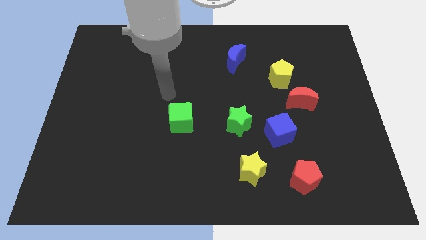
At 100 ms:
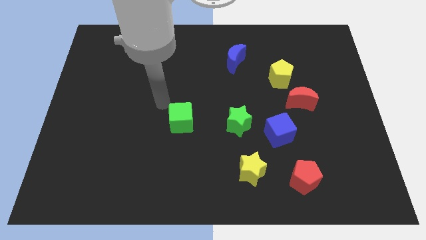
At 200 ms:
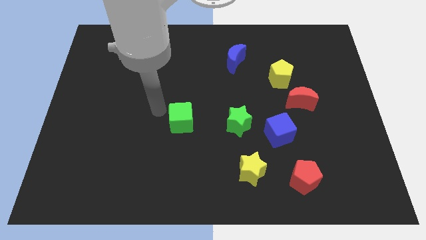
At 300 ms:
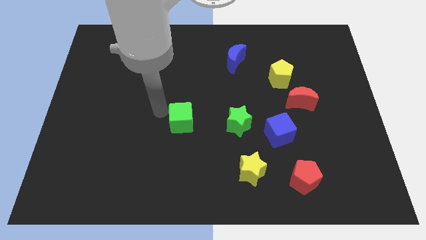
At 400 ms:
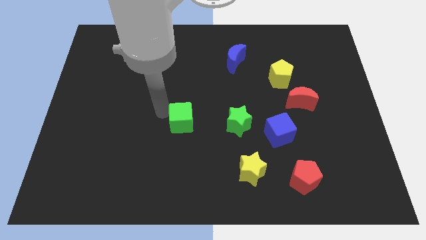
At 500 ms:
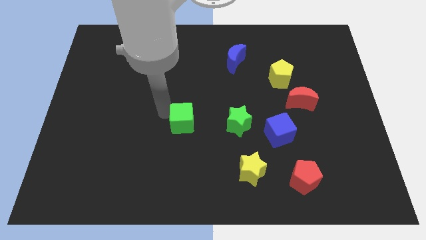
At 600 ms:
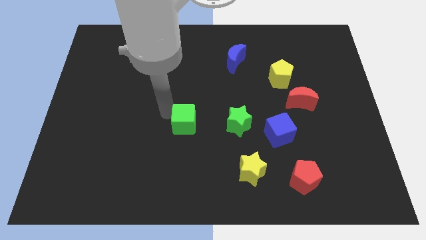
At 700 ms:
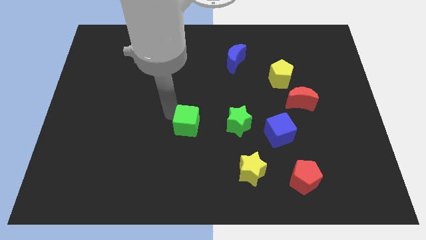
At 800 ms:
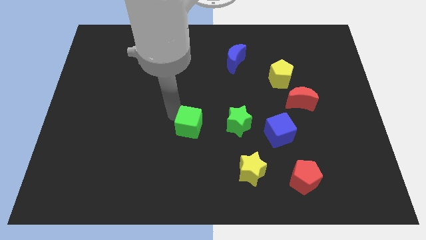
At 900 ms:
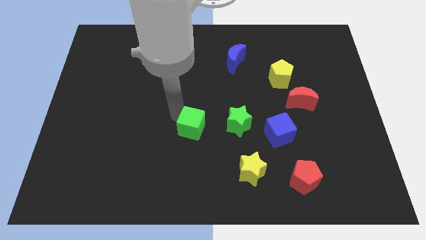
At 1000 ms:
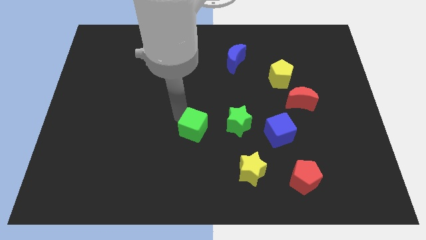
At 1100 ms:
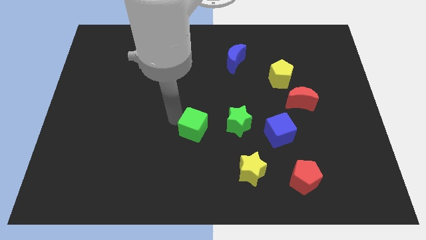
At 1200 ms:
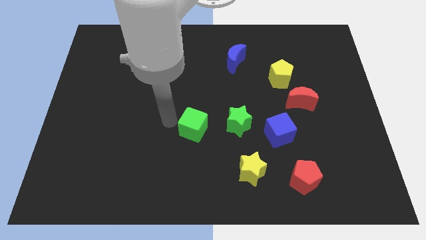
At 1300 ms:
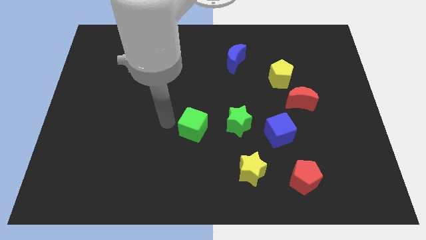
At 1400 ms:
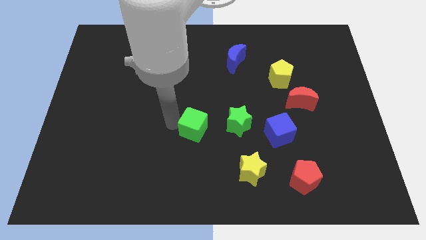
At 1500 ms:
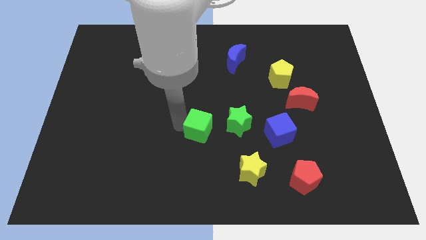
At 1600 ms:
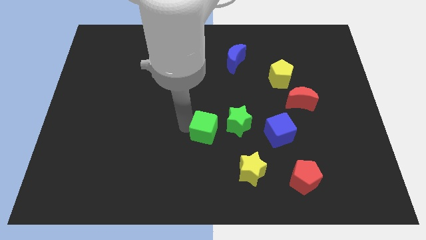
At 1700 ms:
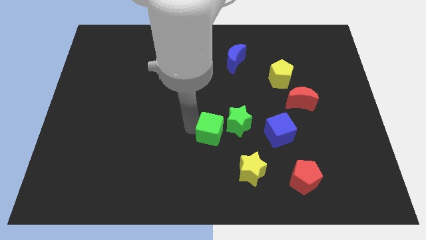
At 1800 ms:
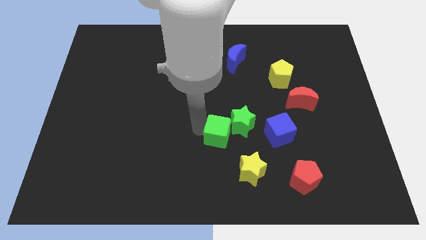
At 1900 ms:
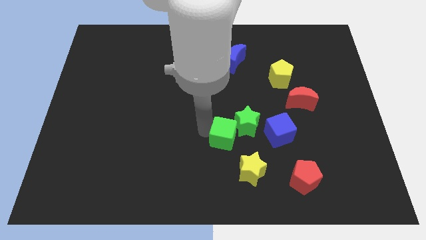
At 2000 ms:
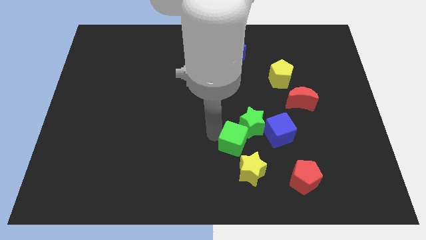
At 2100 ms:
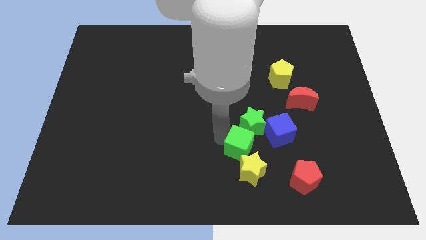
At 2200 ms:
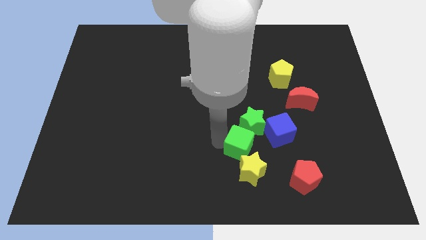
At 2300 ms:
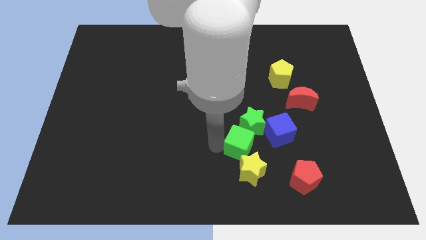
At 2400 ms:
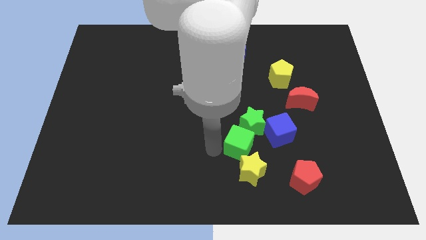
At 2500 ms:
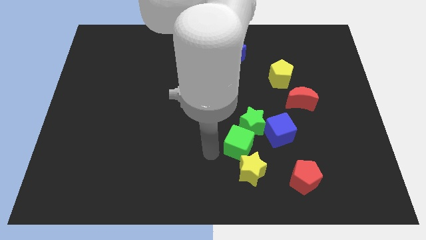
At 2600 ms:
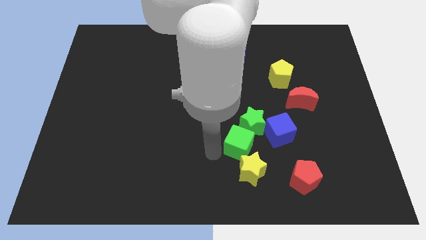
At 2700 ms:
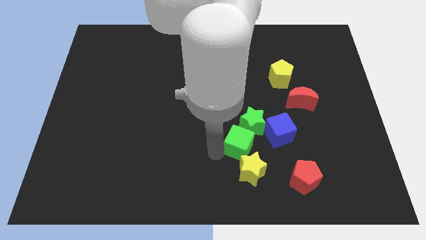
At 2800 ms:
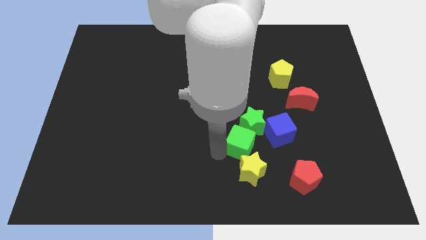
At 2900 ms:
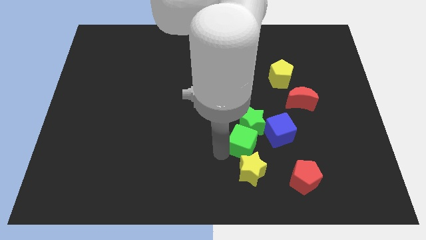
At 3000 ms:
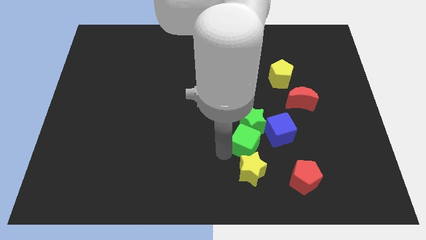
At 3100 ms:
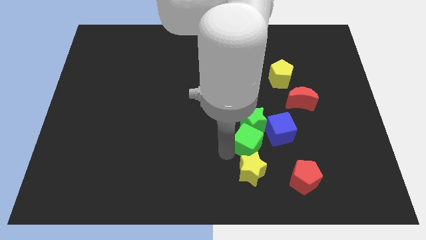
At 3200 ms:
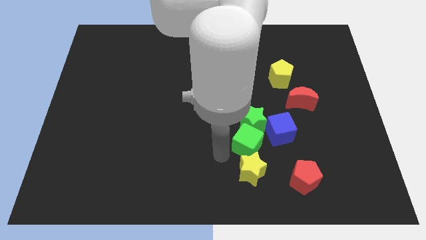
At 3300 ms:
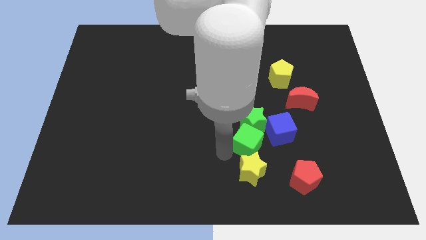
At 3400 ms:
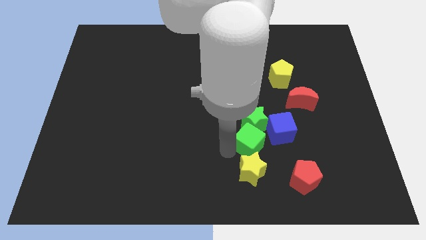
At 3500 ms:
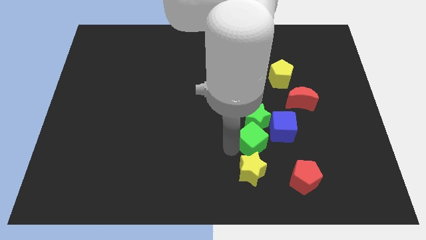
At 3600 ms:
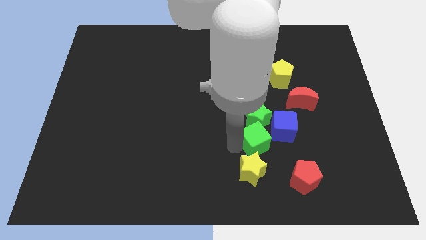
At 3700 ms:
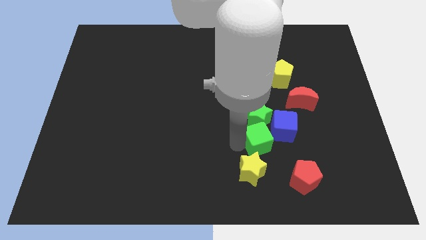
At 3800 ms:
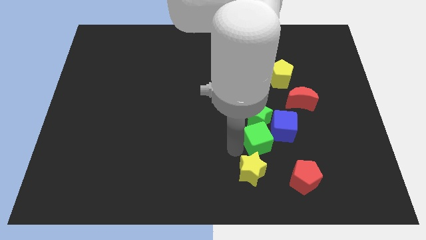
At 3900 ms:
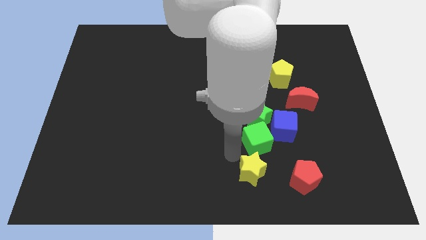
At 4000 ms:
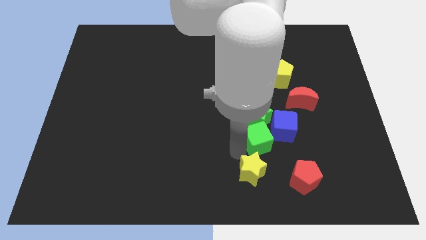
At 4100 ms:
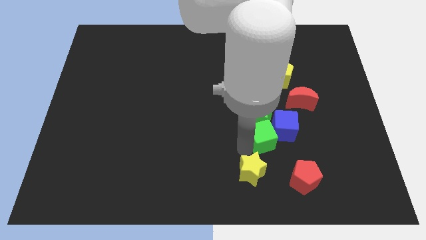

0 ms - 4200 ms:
slide the green cube to the blue cube

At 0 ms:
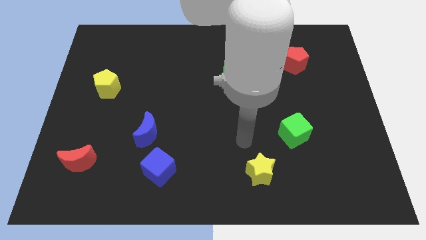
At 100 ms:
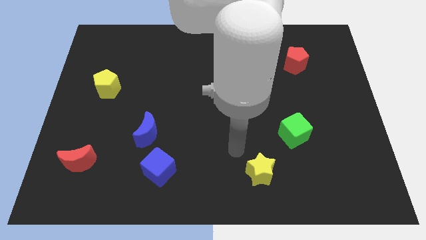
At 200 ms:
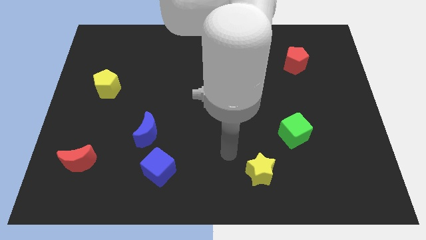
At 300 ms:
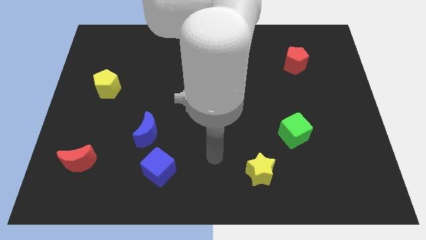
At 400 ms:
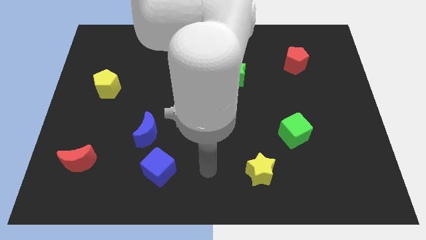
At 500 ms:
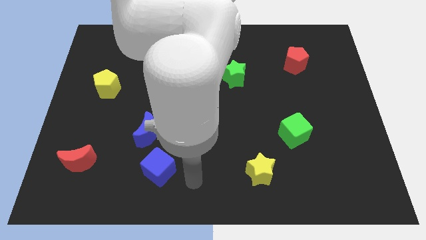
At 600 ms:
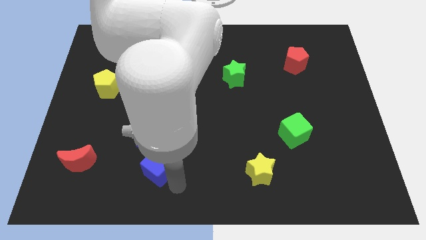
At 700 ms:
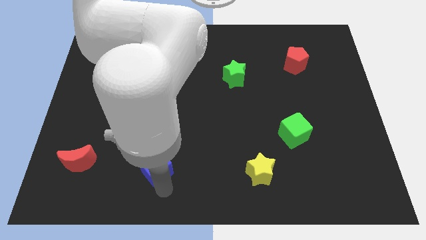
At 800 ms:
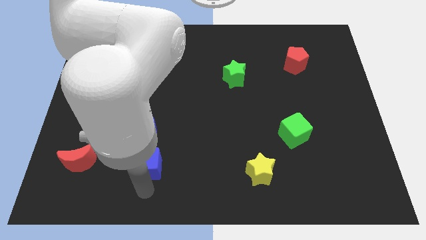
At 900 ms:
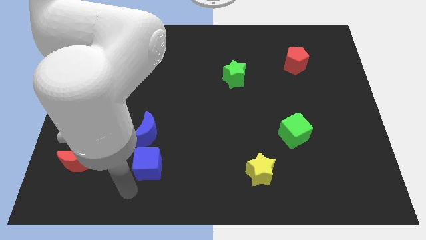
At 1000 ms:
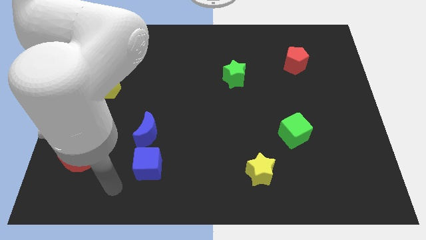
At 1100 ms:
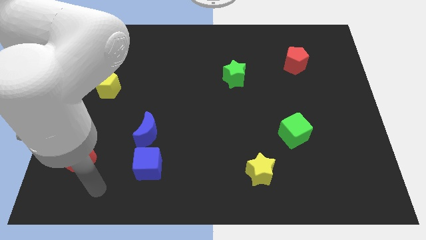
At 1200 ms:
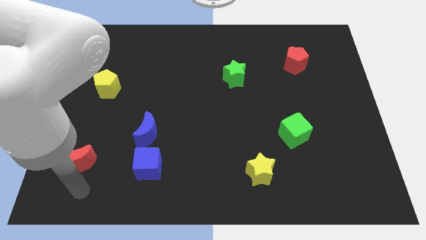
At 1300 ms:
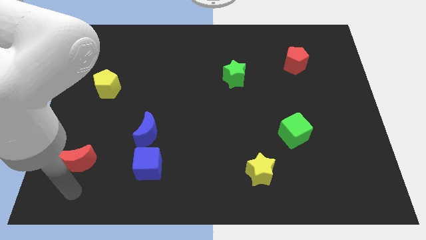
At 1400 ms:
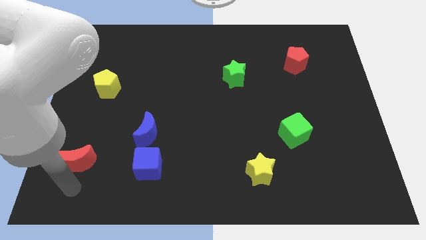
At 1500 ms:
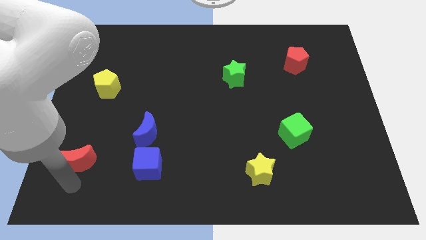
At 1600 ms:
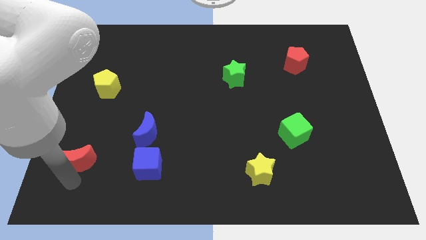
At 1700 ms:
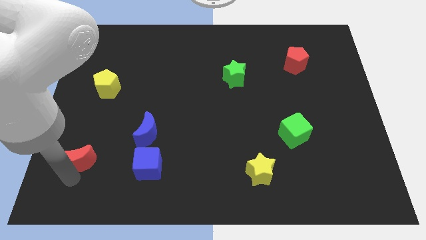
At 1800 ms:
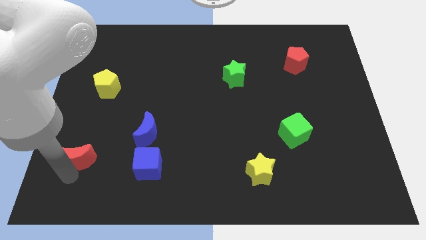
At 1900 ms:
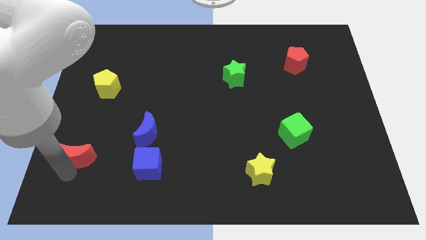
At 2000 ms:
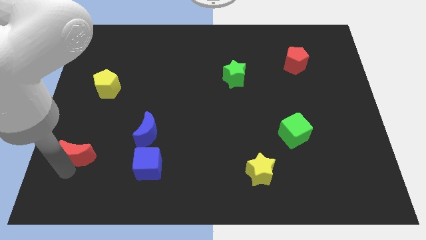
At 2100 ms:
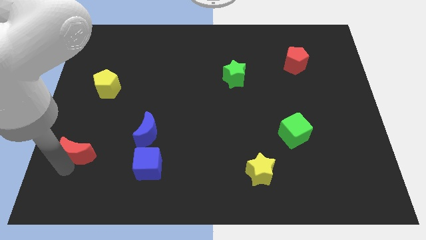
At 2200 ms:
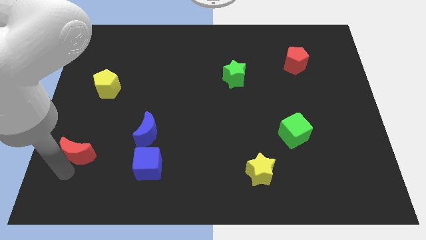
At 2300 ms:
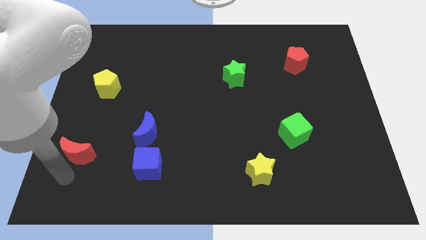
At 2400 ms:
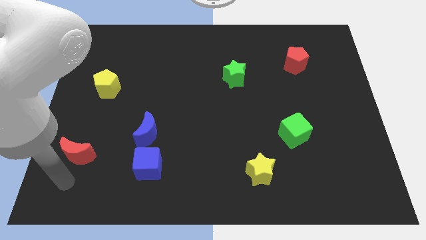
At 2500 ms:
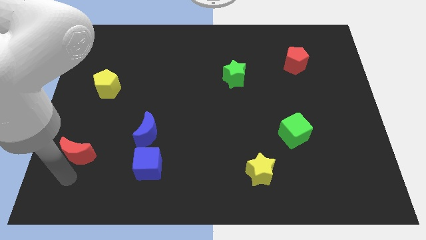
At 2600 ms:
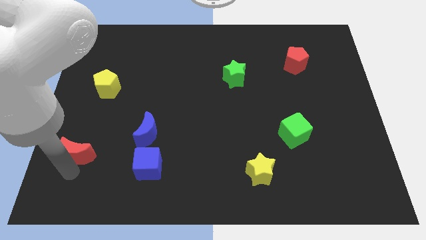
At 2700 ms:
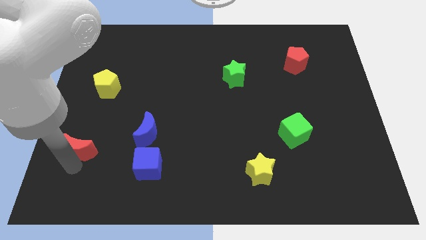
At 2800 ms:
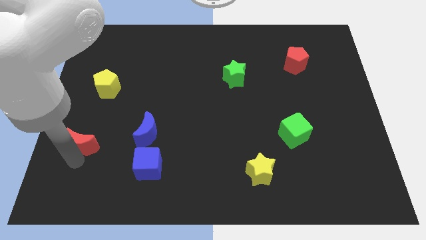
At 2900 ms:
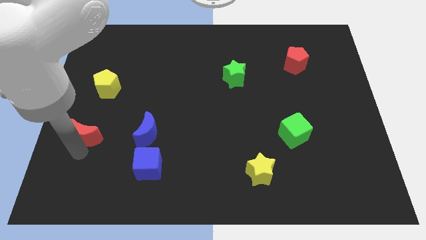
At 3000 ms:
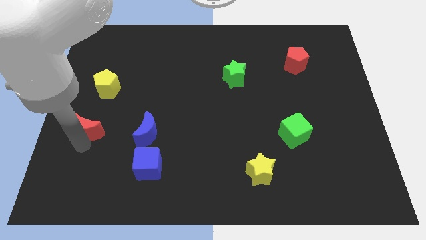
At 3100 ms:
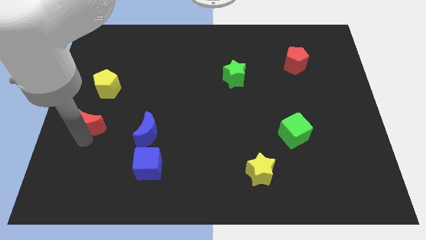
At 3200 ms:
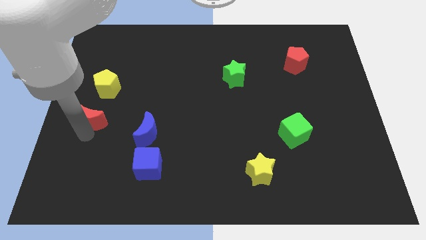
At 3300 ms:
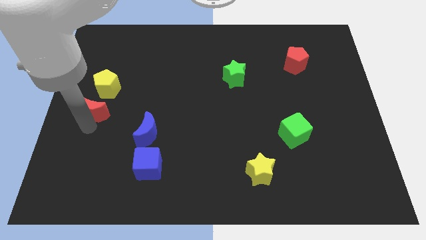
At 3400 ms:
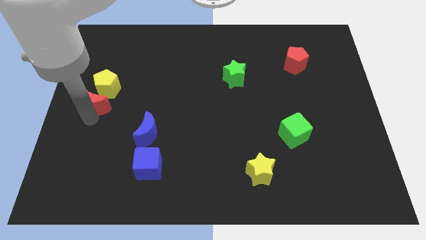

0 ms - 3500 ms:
push the red moon to the yellow pentagon
